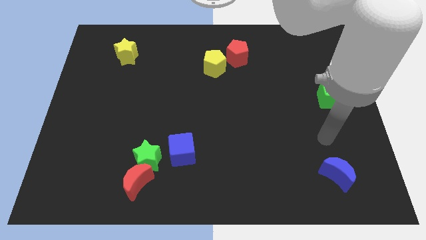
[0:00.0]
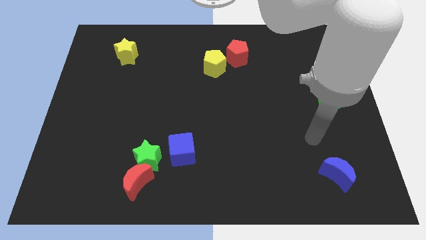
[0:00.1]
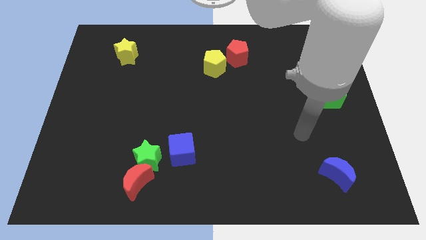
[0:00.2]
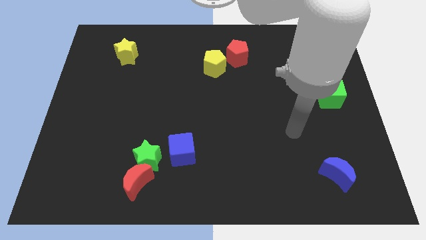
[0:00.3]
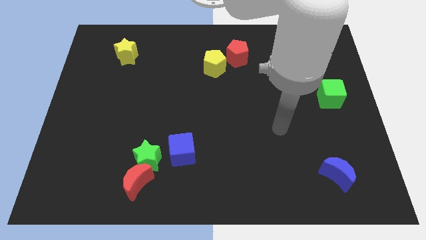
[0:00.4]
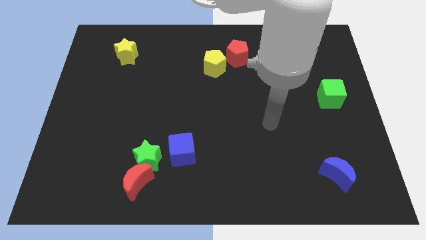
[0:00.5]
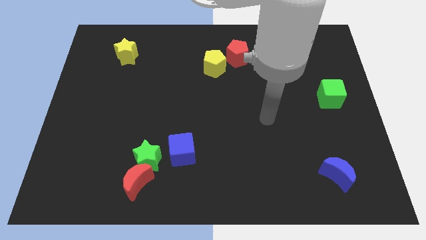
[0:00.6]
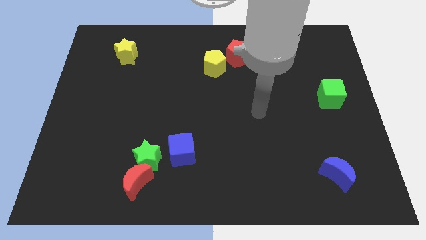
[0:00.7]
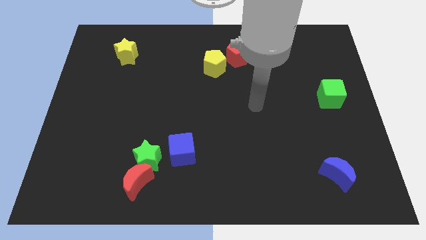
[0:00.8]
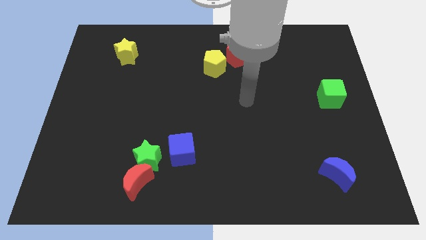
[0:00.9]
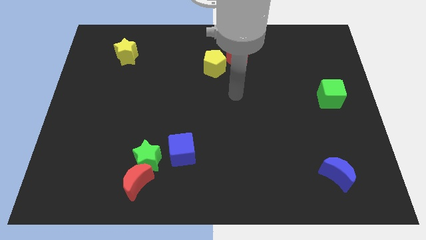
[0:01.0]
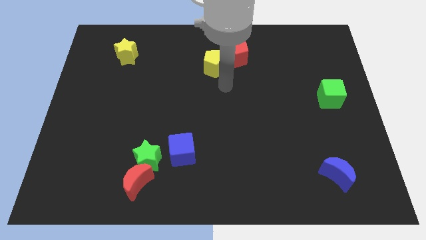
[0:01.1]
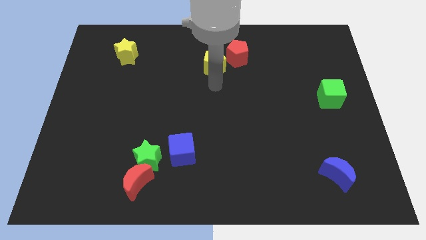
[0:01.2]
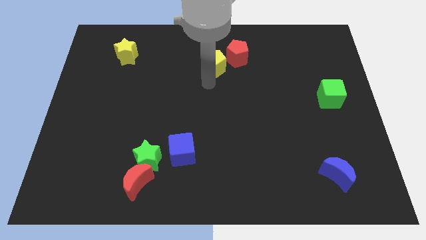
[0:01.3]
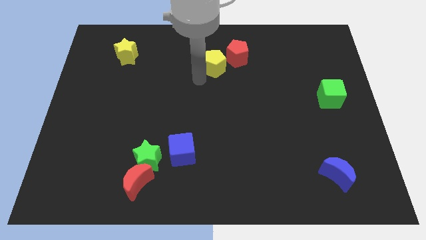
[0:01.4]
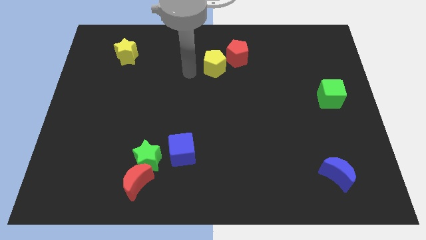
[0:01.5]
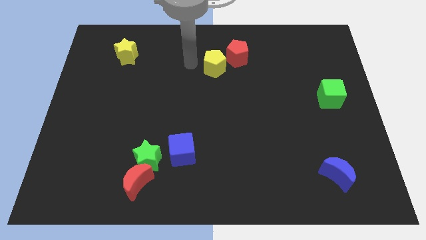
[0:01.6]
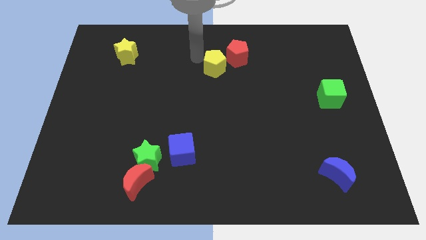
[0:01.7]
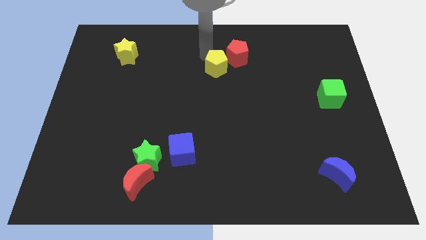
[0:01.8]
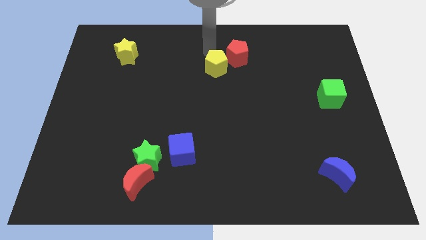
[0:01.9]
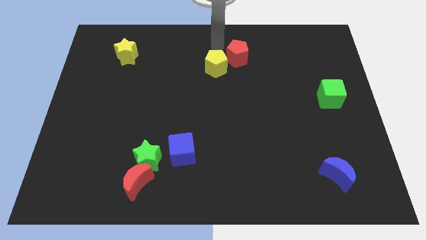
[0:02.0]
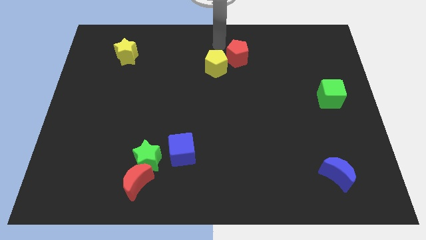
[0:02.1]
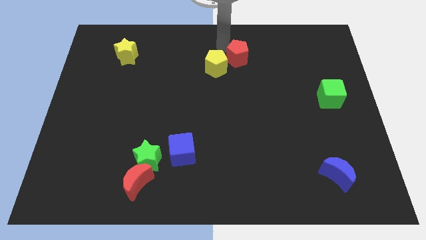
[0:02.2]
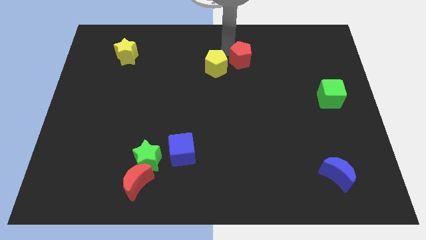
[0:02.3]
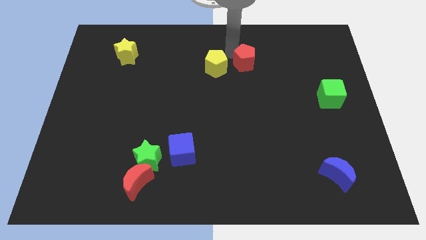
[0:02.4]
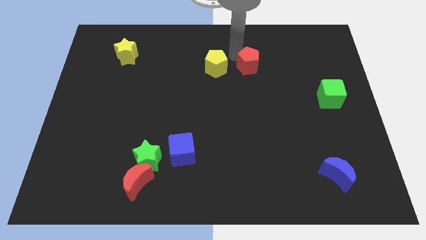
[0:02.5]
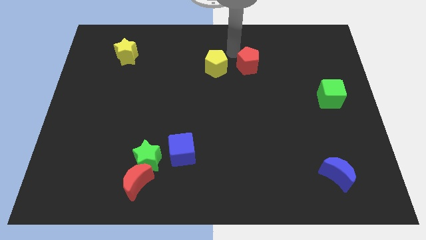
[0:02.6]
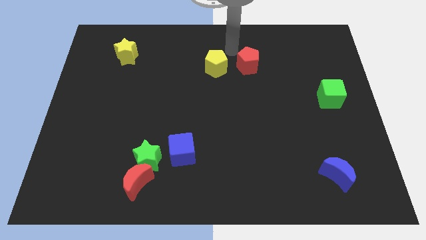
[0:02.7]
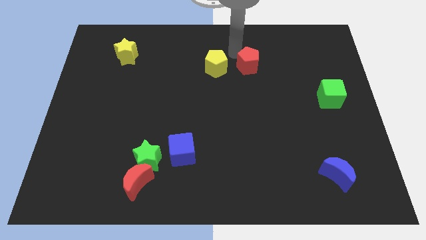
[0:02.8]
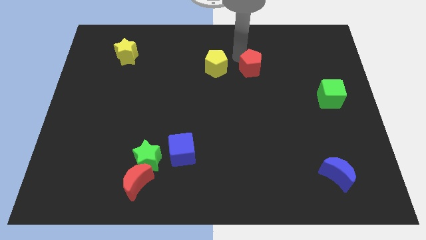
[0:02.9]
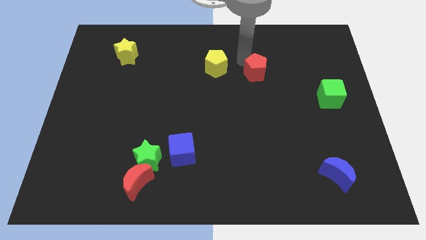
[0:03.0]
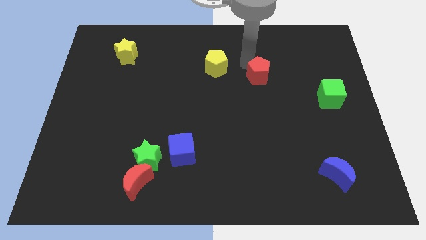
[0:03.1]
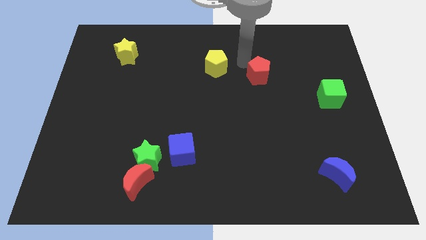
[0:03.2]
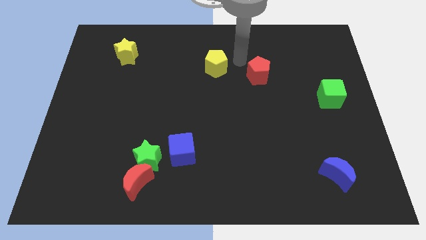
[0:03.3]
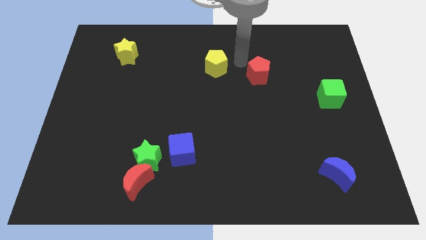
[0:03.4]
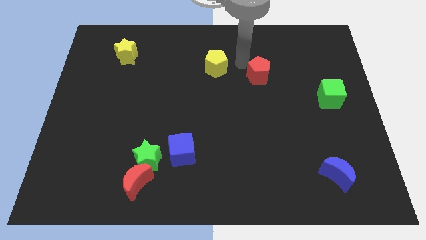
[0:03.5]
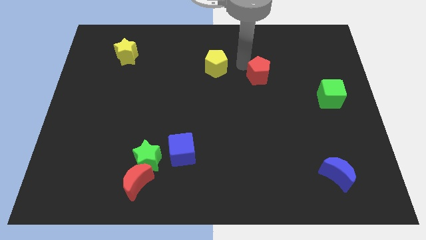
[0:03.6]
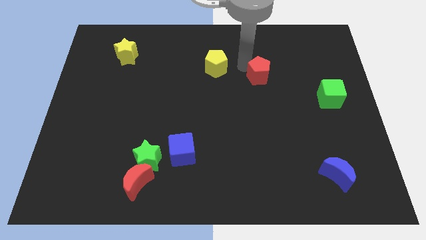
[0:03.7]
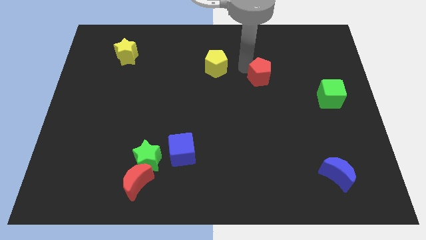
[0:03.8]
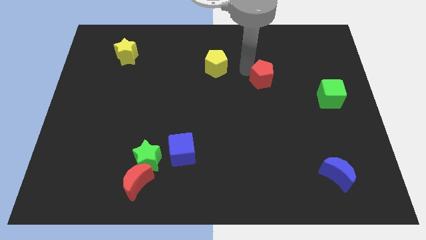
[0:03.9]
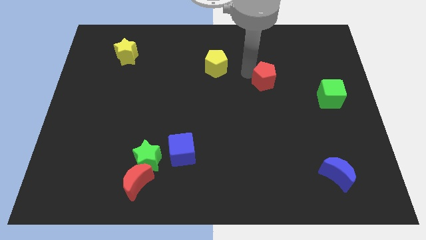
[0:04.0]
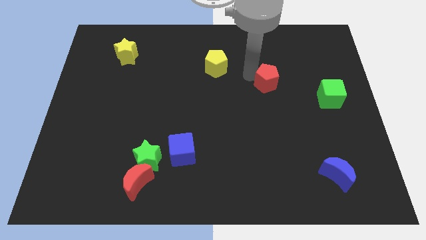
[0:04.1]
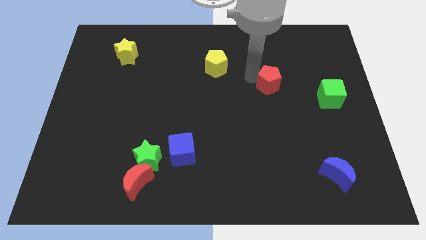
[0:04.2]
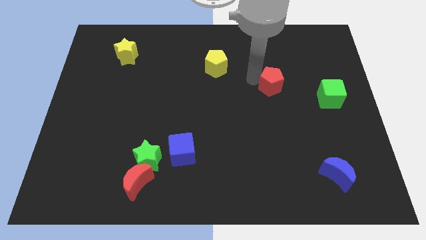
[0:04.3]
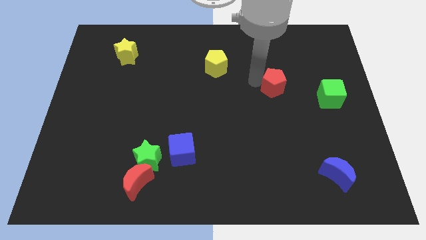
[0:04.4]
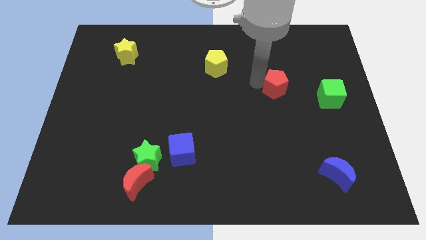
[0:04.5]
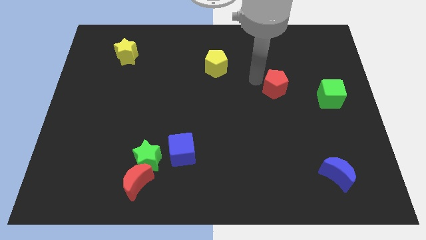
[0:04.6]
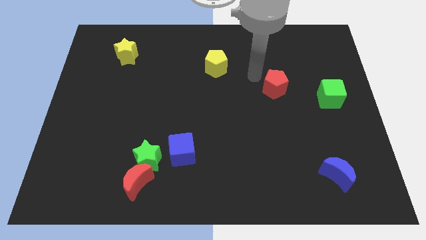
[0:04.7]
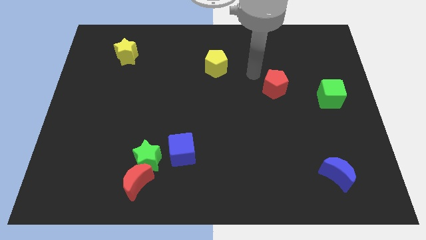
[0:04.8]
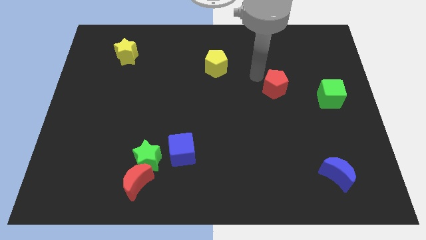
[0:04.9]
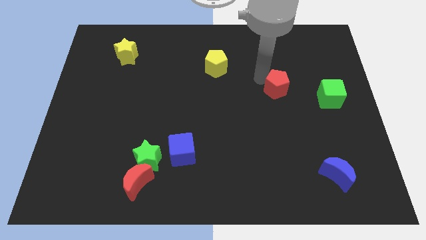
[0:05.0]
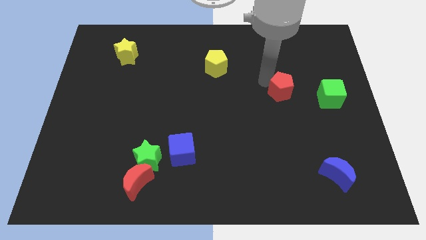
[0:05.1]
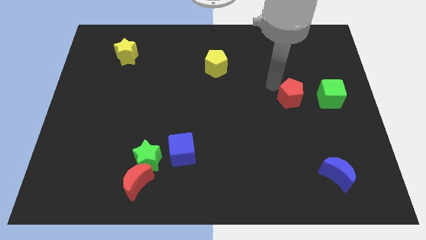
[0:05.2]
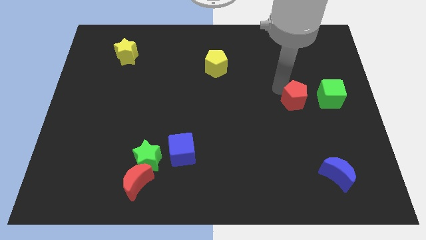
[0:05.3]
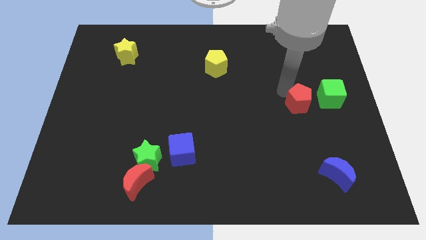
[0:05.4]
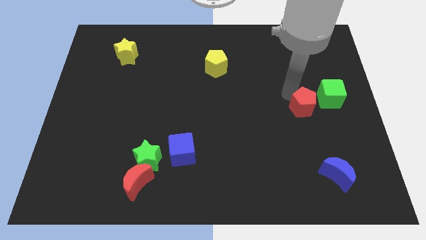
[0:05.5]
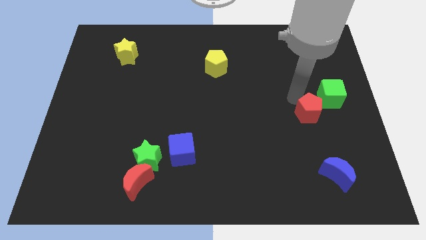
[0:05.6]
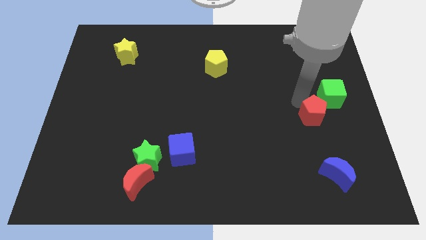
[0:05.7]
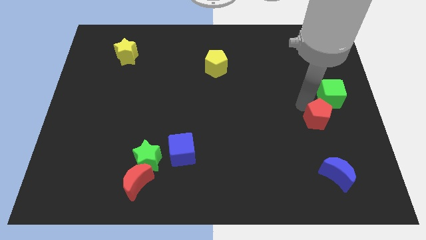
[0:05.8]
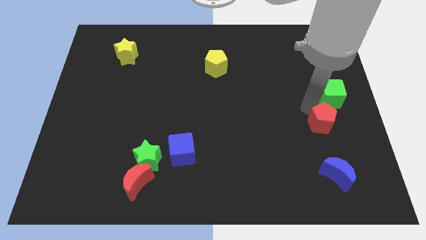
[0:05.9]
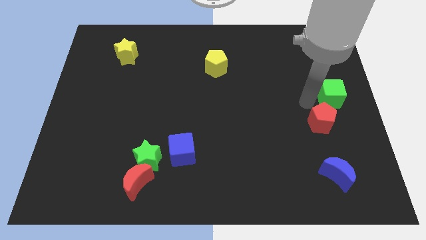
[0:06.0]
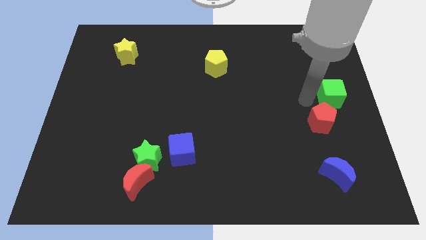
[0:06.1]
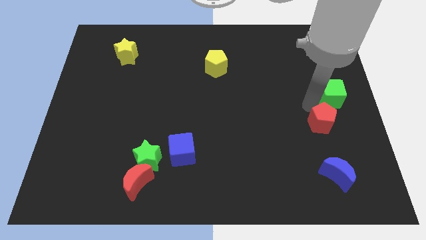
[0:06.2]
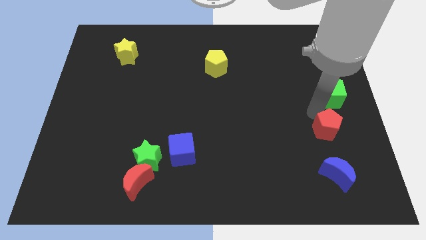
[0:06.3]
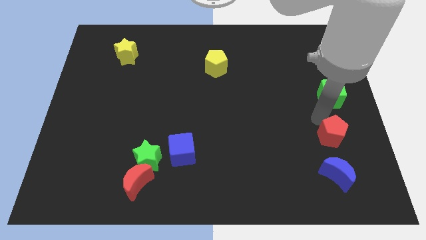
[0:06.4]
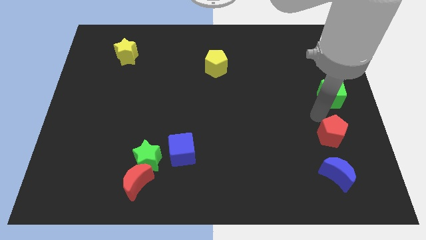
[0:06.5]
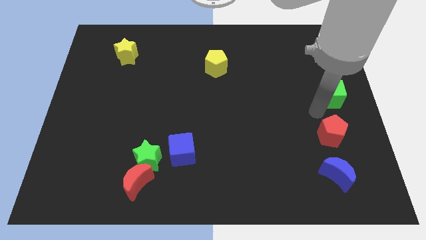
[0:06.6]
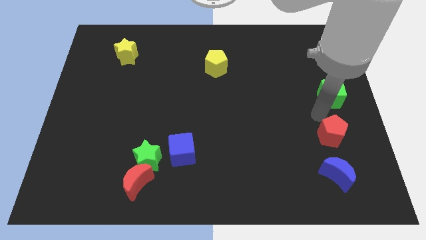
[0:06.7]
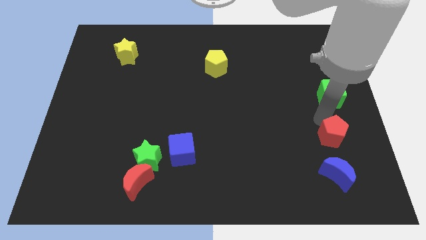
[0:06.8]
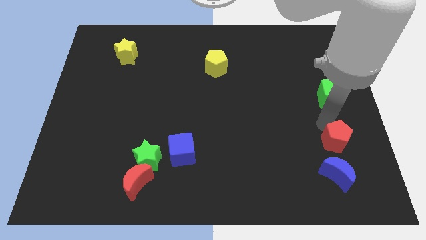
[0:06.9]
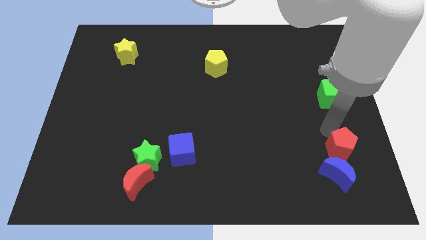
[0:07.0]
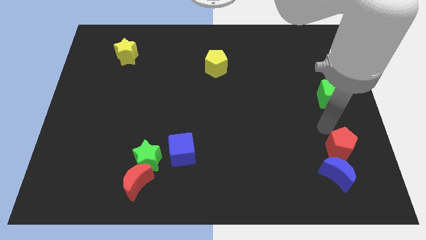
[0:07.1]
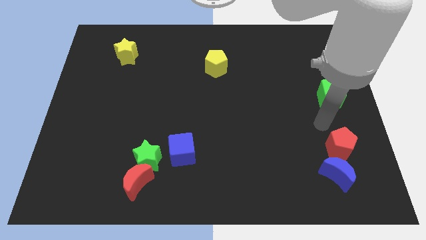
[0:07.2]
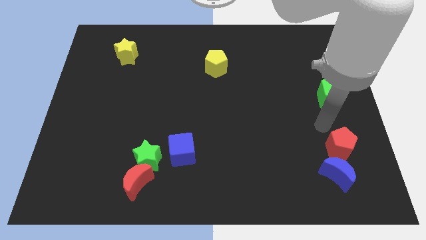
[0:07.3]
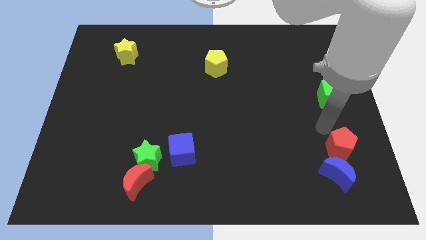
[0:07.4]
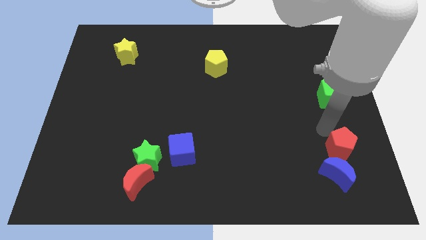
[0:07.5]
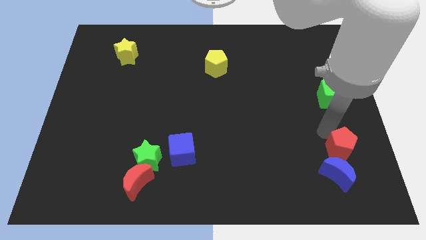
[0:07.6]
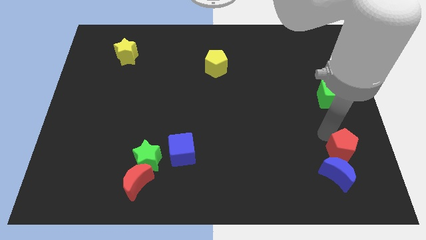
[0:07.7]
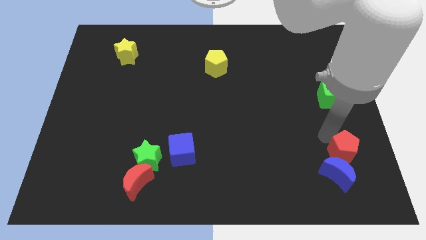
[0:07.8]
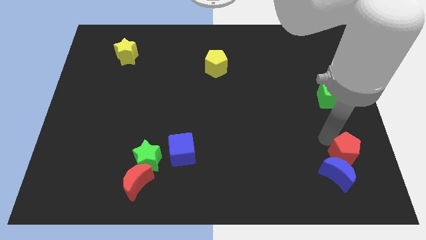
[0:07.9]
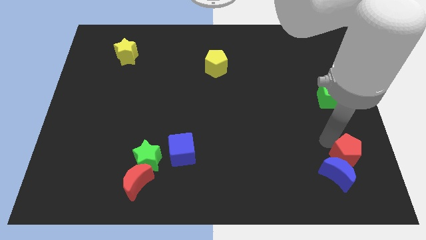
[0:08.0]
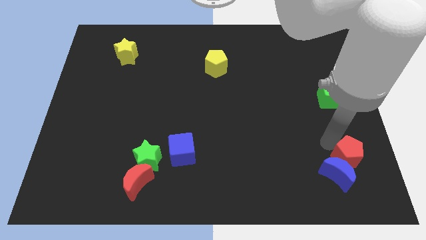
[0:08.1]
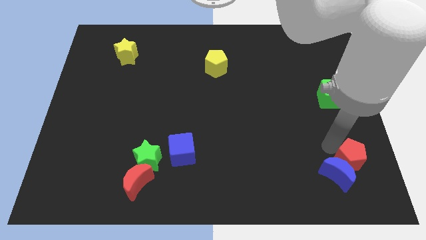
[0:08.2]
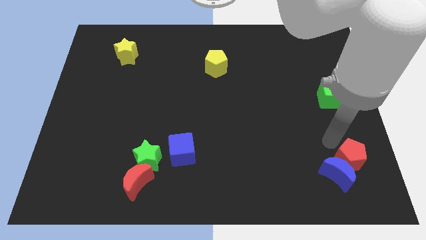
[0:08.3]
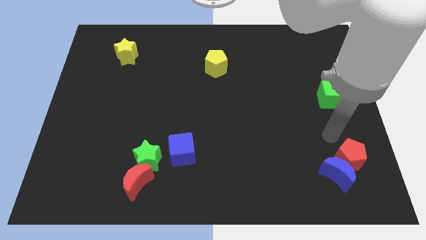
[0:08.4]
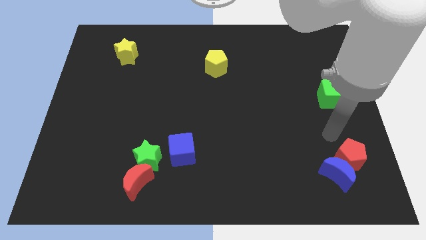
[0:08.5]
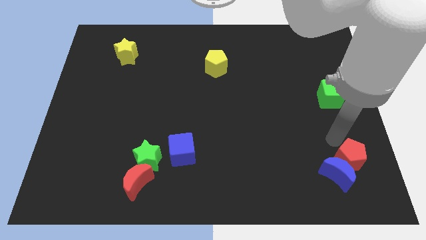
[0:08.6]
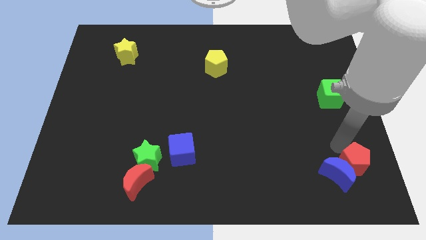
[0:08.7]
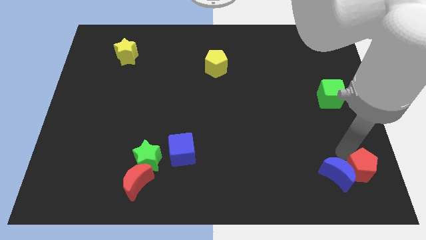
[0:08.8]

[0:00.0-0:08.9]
move the red pentagon to the bottom right
